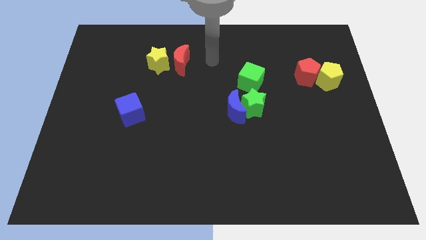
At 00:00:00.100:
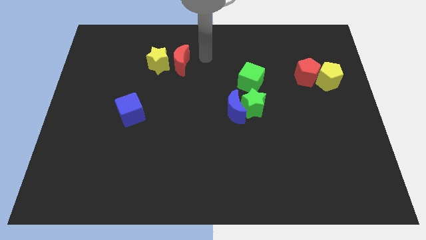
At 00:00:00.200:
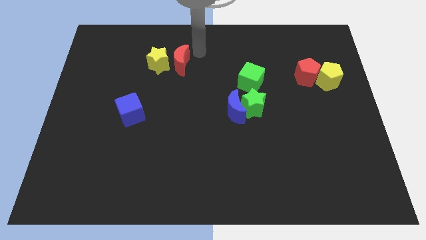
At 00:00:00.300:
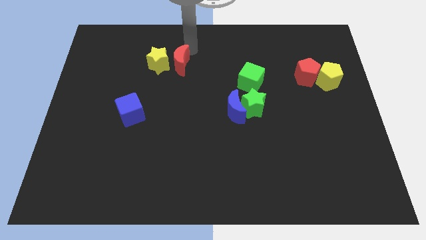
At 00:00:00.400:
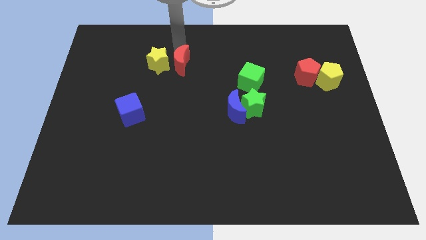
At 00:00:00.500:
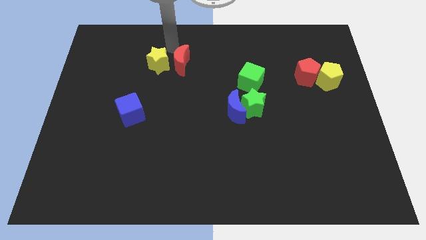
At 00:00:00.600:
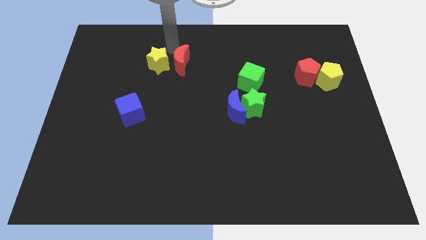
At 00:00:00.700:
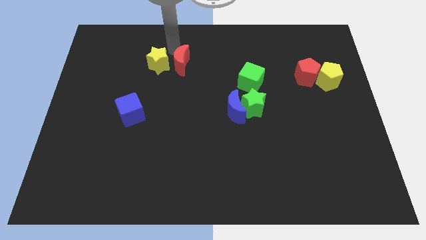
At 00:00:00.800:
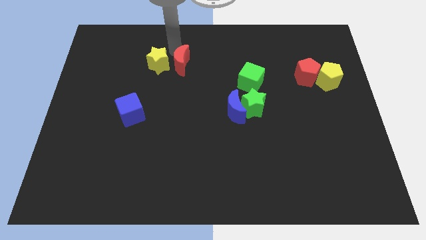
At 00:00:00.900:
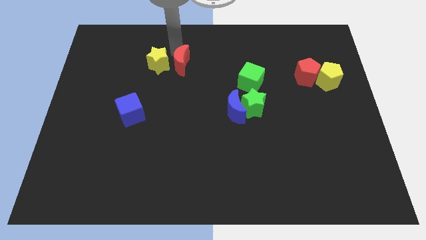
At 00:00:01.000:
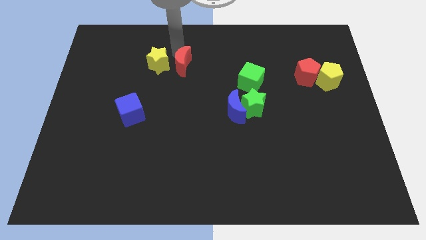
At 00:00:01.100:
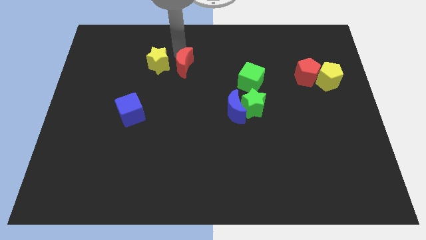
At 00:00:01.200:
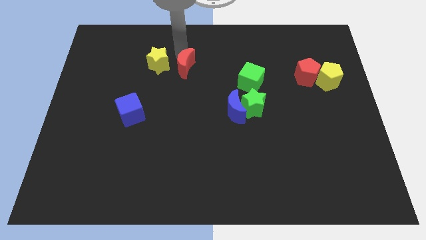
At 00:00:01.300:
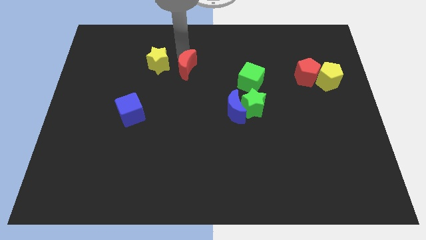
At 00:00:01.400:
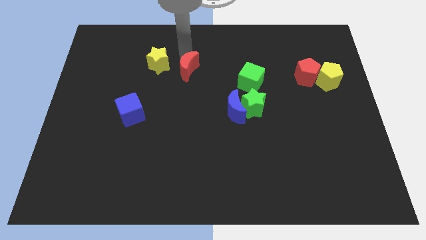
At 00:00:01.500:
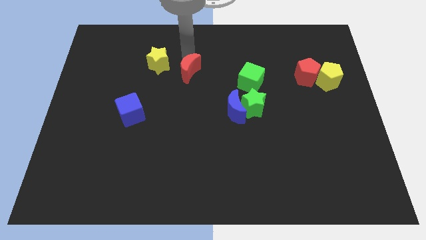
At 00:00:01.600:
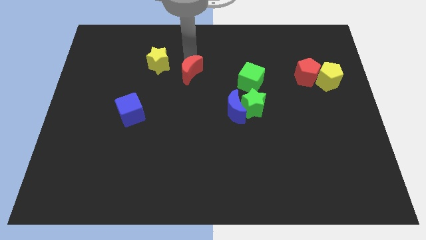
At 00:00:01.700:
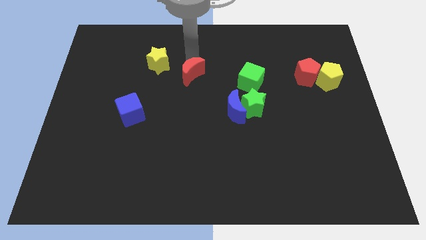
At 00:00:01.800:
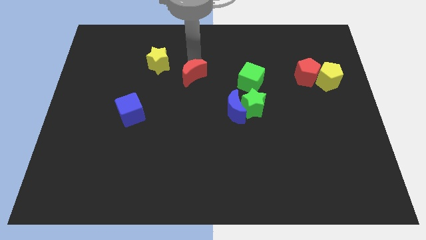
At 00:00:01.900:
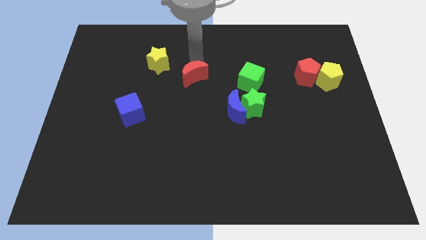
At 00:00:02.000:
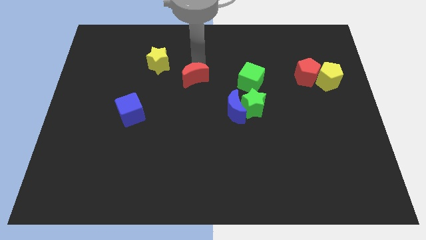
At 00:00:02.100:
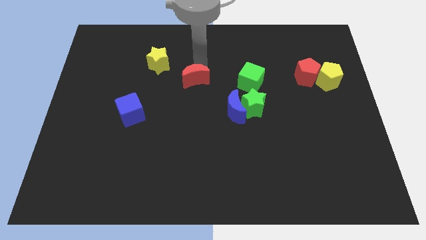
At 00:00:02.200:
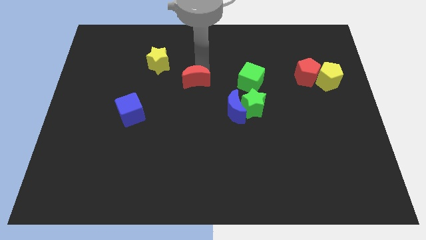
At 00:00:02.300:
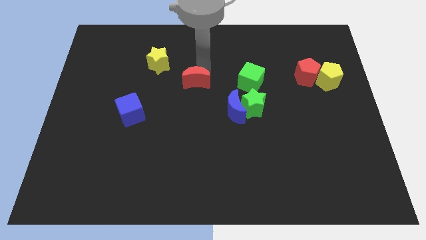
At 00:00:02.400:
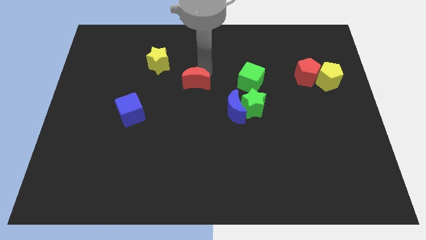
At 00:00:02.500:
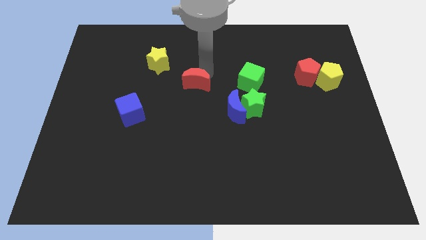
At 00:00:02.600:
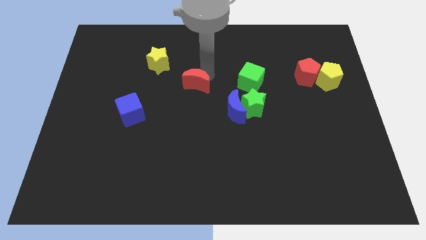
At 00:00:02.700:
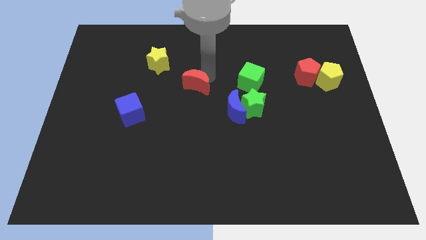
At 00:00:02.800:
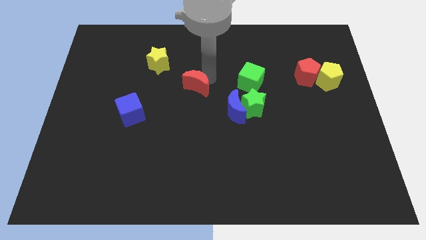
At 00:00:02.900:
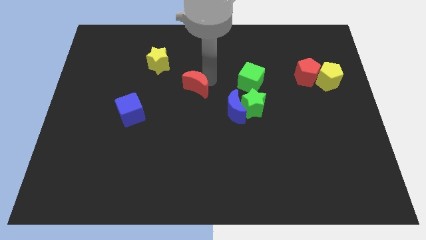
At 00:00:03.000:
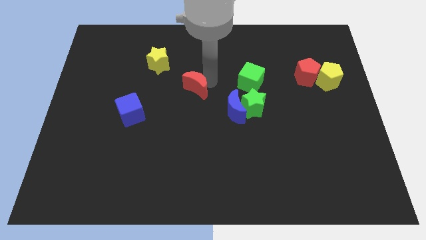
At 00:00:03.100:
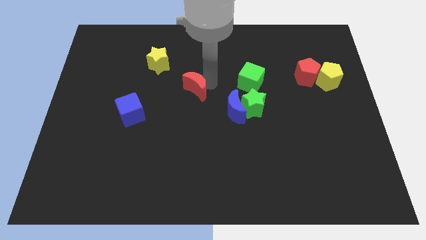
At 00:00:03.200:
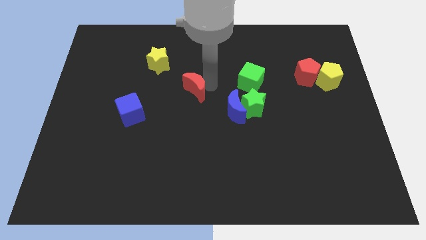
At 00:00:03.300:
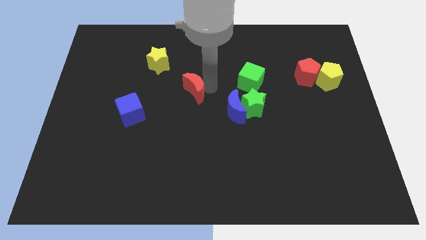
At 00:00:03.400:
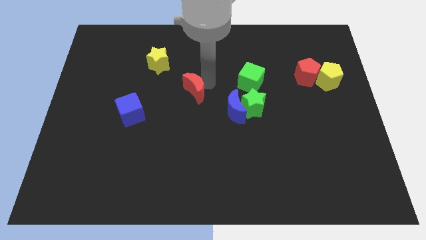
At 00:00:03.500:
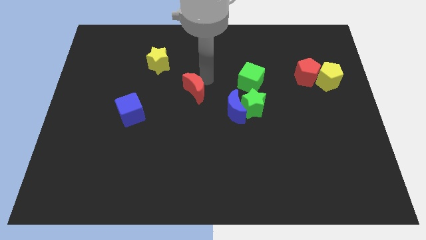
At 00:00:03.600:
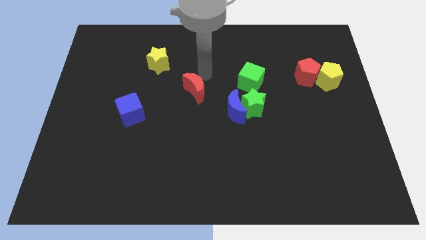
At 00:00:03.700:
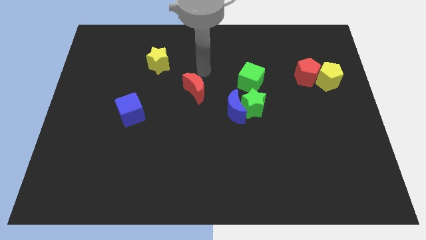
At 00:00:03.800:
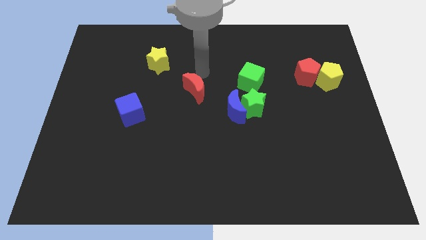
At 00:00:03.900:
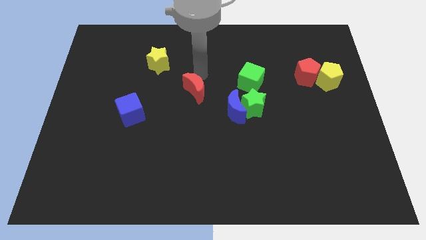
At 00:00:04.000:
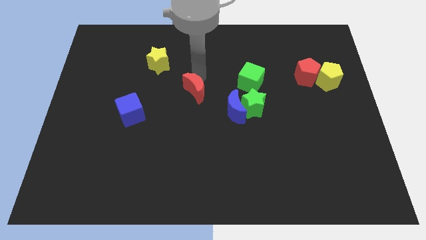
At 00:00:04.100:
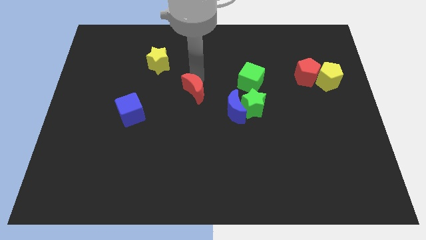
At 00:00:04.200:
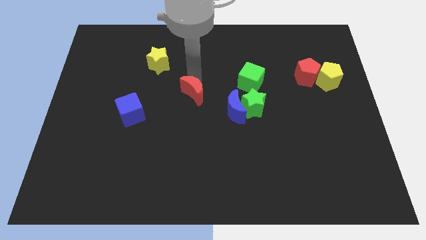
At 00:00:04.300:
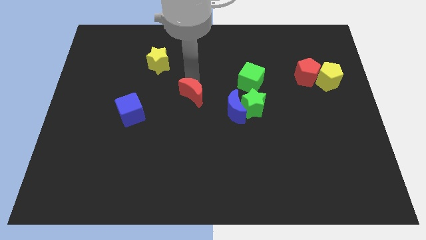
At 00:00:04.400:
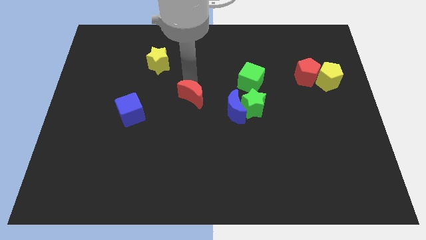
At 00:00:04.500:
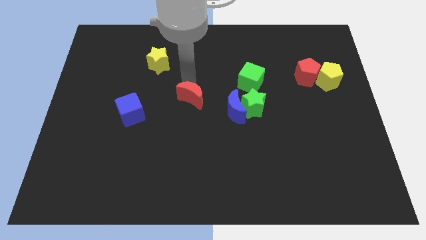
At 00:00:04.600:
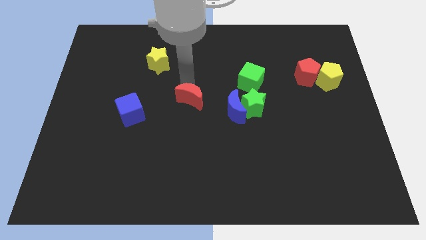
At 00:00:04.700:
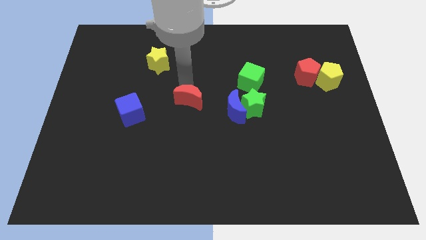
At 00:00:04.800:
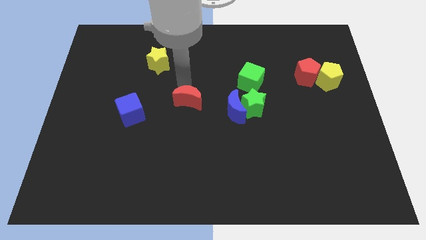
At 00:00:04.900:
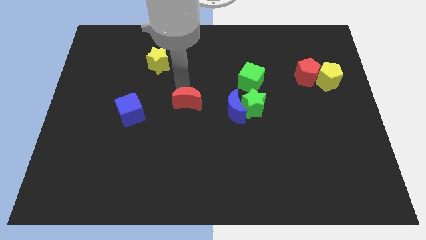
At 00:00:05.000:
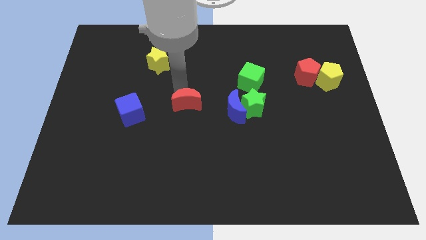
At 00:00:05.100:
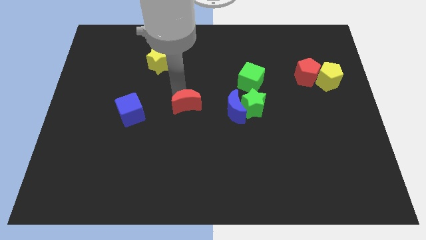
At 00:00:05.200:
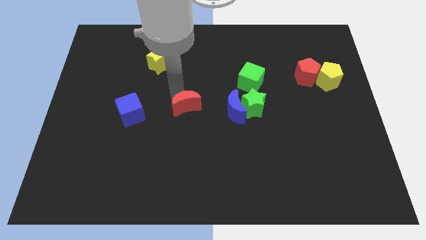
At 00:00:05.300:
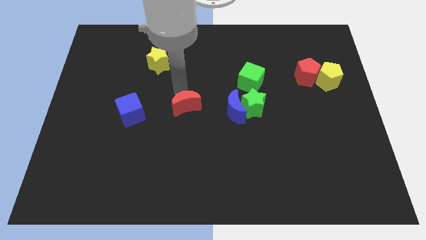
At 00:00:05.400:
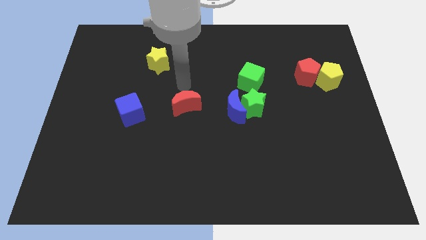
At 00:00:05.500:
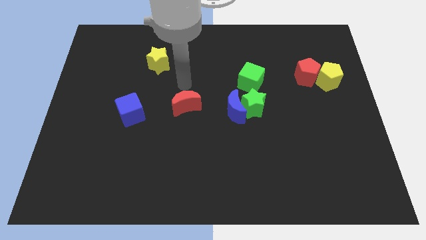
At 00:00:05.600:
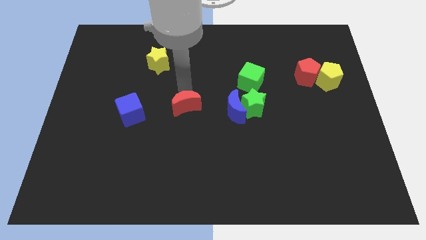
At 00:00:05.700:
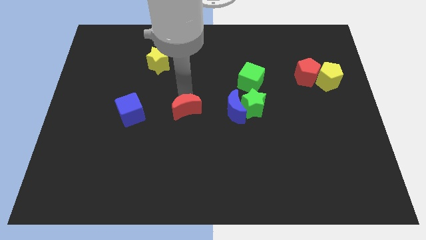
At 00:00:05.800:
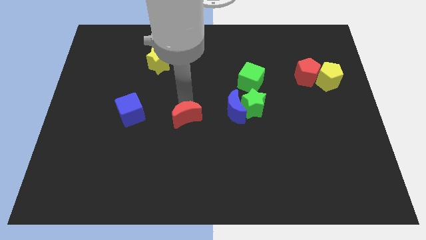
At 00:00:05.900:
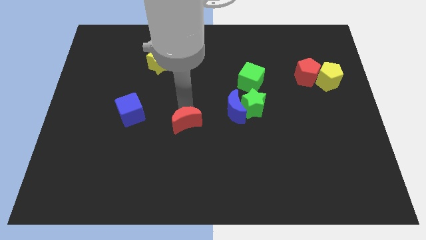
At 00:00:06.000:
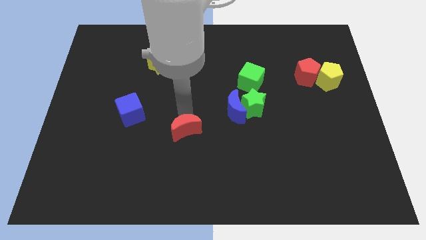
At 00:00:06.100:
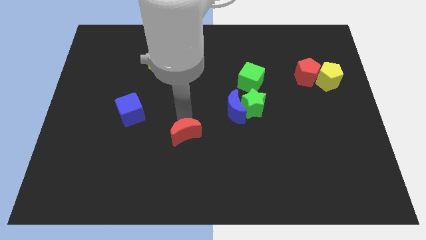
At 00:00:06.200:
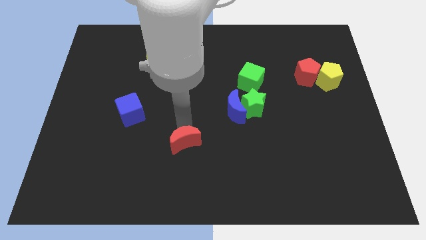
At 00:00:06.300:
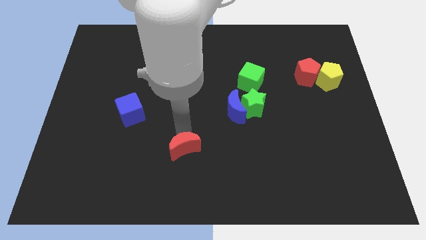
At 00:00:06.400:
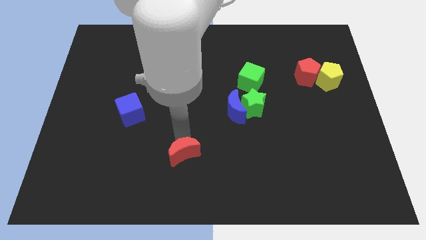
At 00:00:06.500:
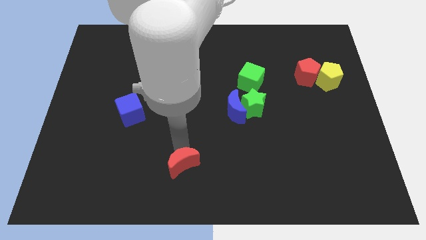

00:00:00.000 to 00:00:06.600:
slide the red moon to the bottom side
